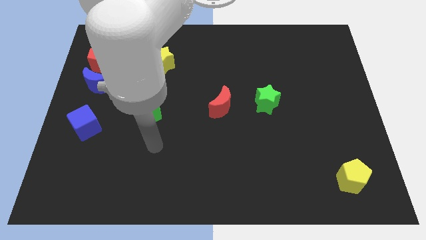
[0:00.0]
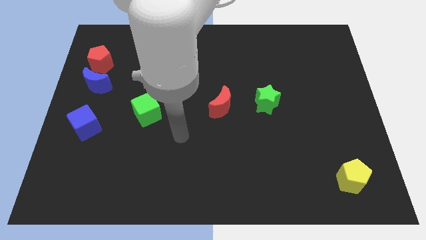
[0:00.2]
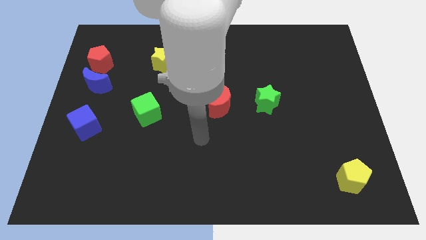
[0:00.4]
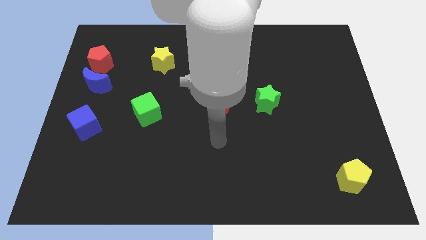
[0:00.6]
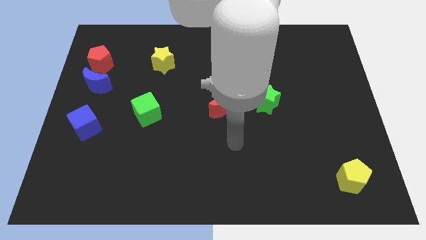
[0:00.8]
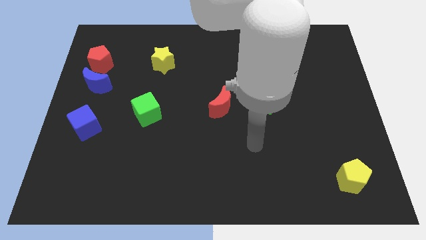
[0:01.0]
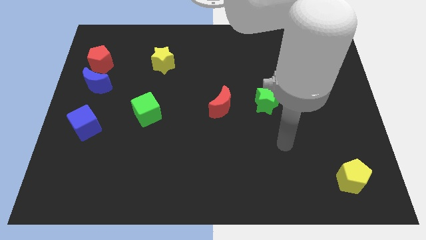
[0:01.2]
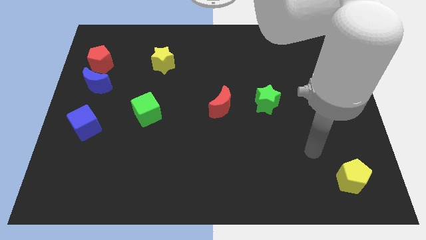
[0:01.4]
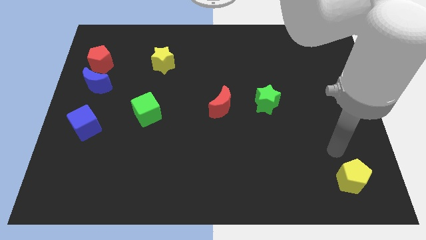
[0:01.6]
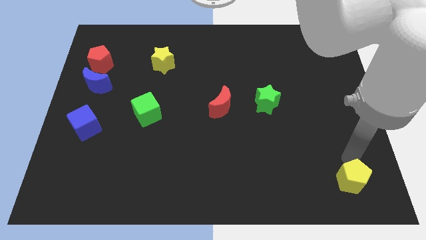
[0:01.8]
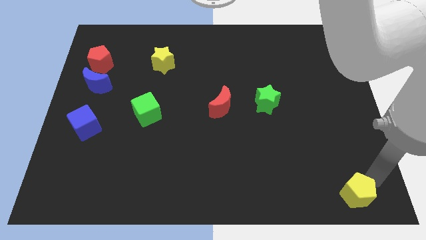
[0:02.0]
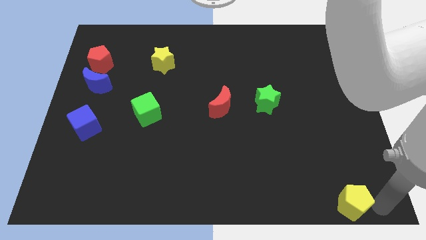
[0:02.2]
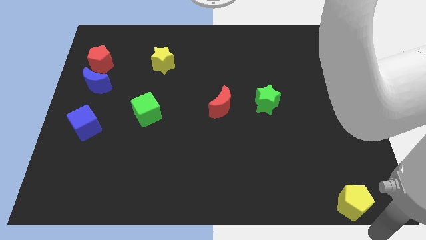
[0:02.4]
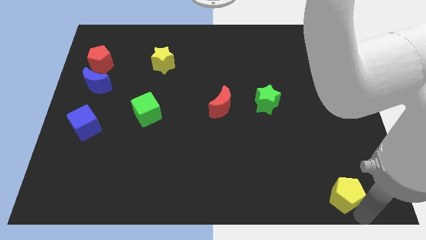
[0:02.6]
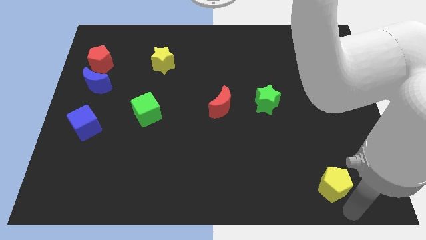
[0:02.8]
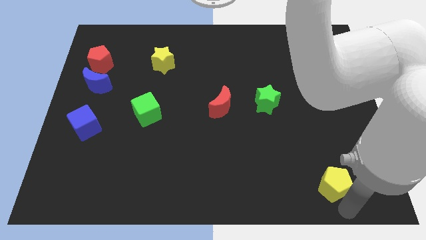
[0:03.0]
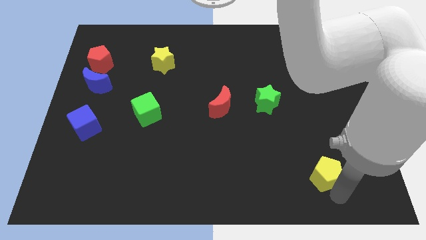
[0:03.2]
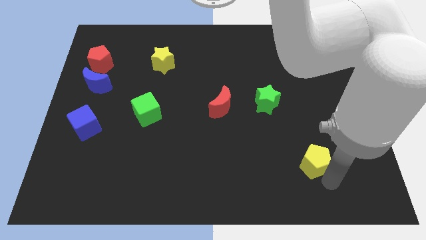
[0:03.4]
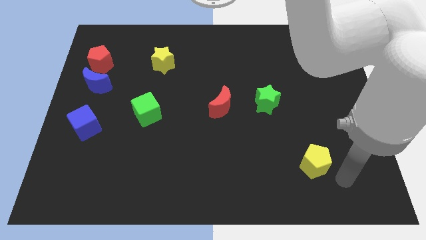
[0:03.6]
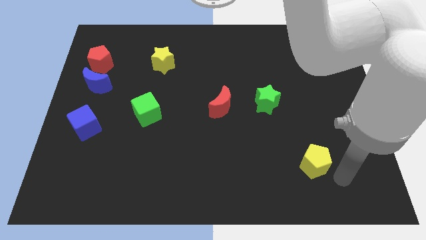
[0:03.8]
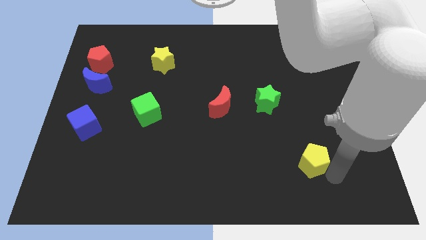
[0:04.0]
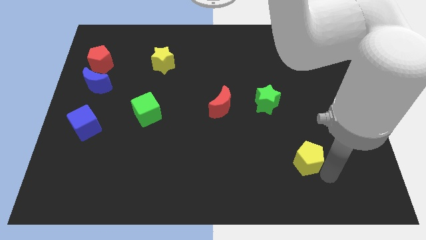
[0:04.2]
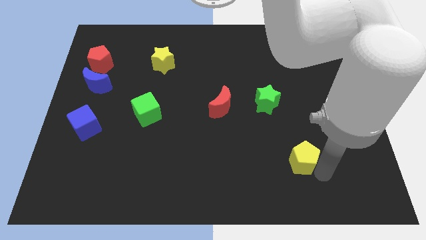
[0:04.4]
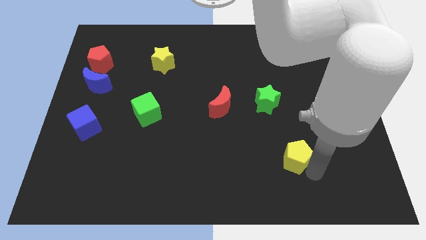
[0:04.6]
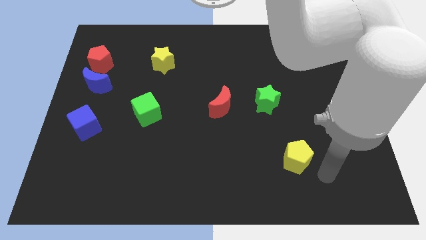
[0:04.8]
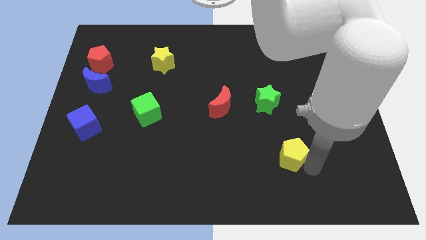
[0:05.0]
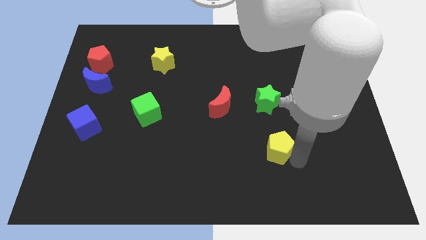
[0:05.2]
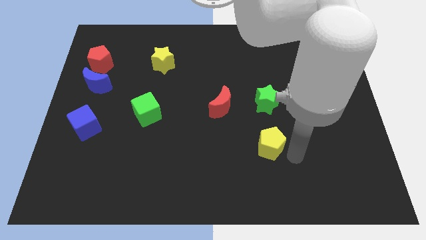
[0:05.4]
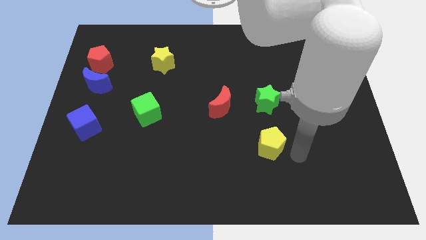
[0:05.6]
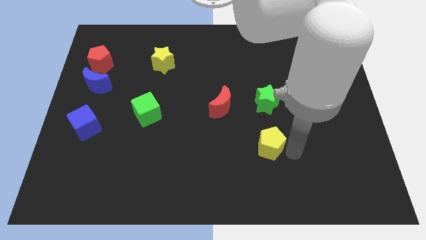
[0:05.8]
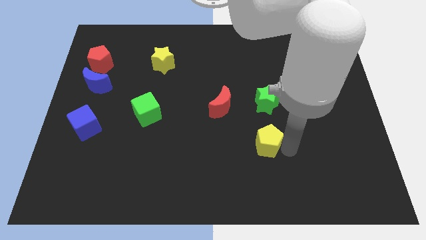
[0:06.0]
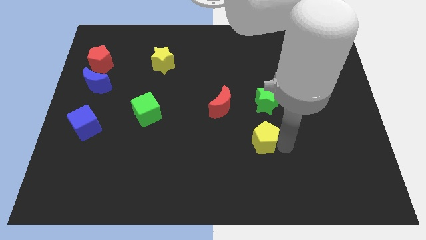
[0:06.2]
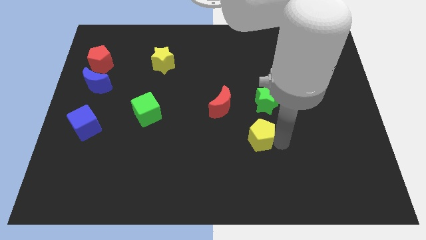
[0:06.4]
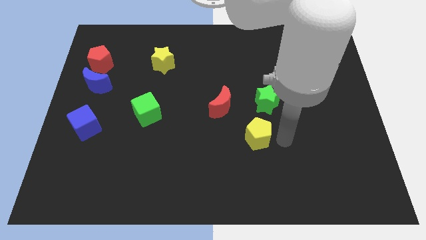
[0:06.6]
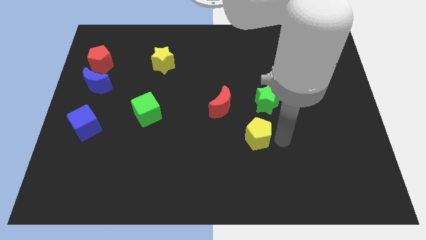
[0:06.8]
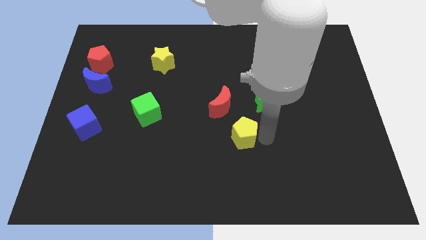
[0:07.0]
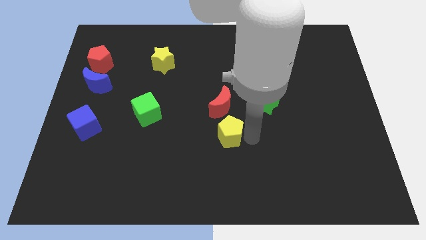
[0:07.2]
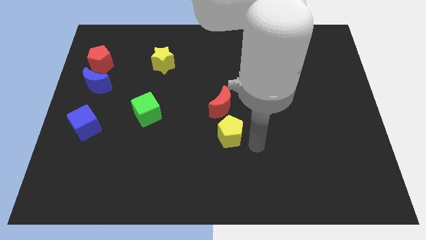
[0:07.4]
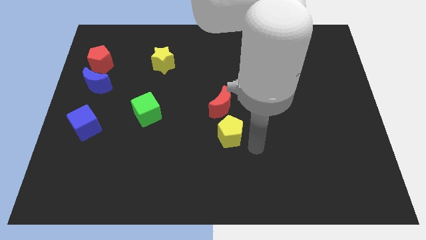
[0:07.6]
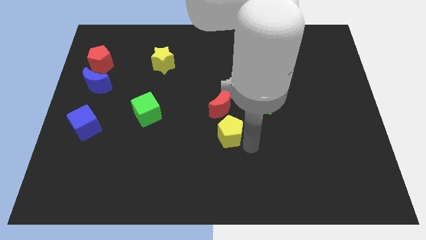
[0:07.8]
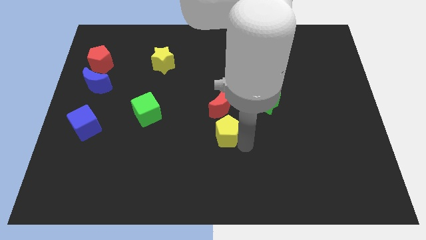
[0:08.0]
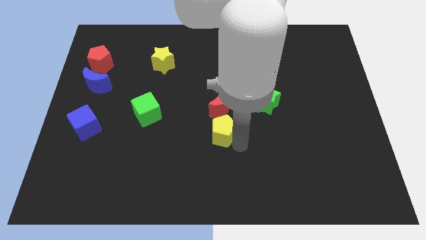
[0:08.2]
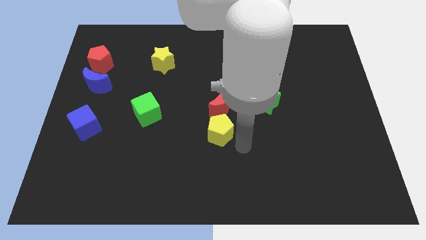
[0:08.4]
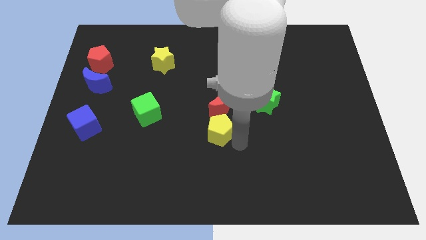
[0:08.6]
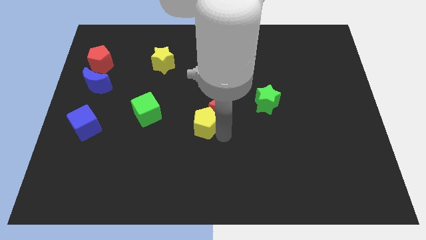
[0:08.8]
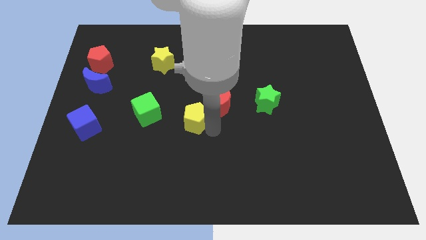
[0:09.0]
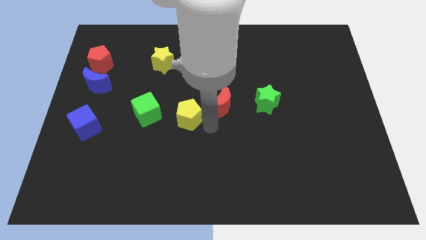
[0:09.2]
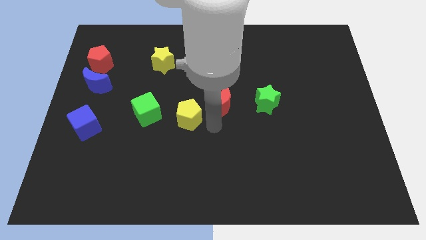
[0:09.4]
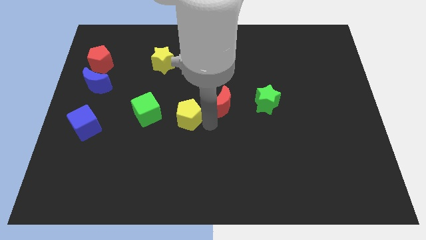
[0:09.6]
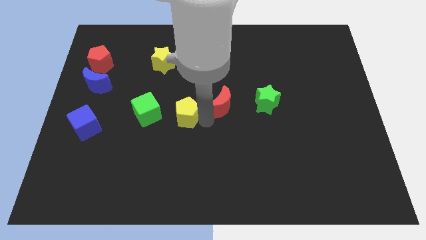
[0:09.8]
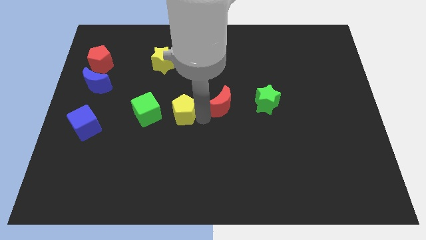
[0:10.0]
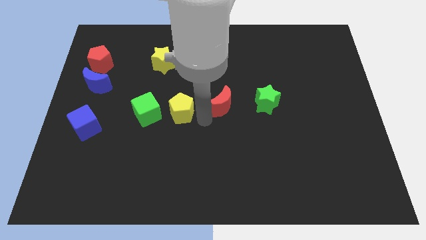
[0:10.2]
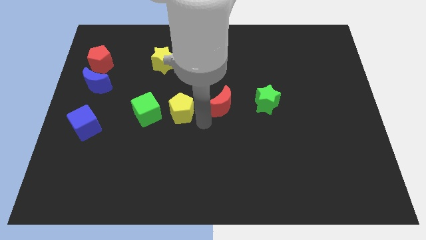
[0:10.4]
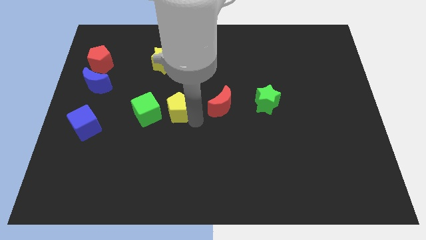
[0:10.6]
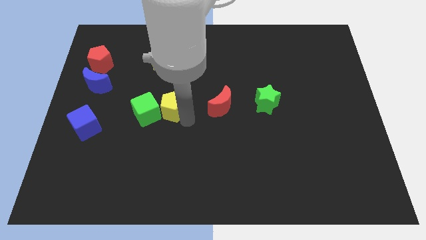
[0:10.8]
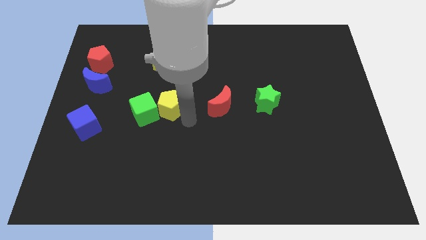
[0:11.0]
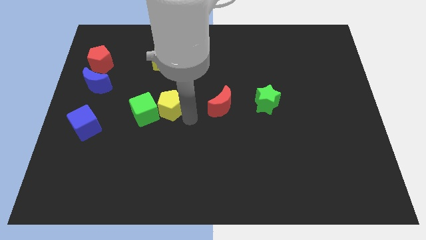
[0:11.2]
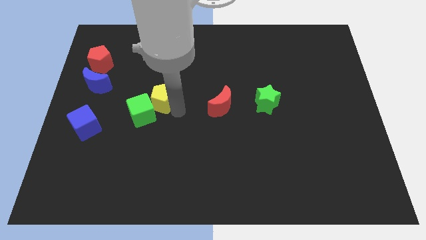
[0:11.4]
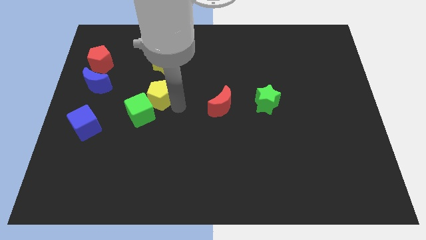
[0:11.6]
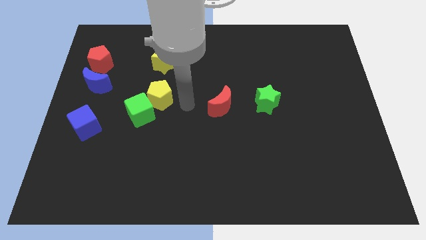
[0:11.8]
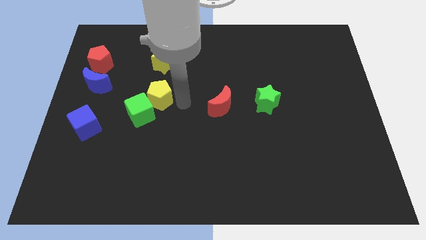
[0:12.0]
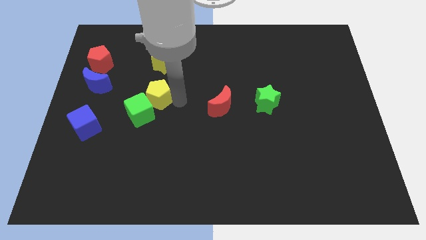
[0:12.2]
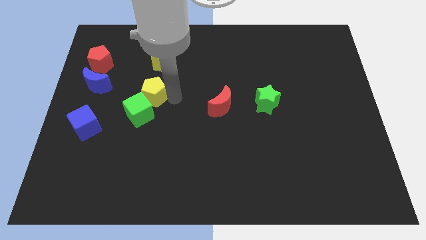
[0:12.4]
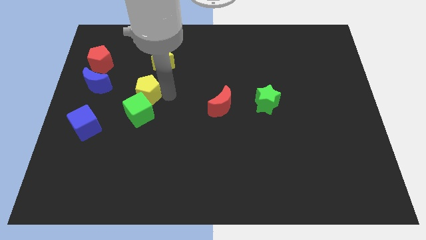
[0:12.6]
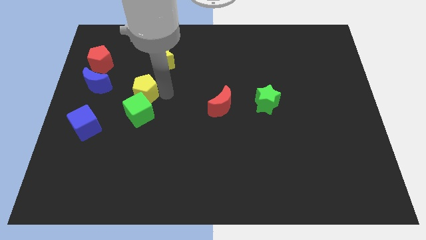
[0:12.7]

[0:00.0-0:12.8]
push the yellow pentagon diagonally up and to the left of the green cube

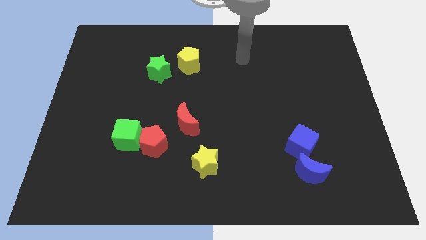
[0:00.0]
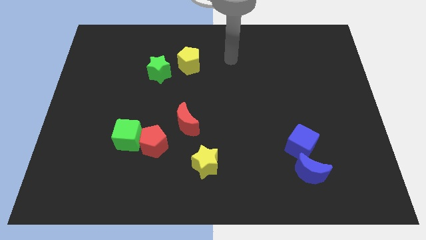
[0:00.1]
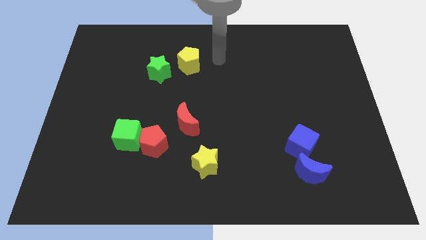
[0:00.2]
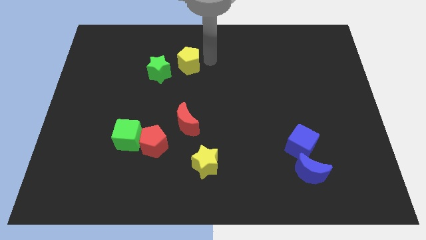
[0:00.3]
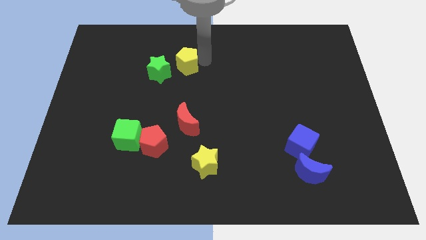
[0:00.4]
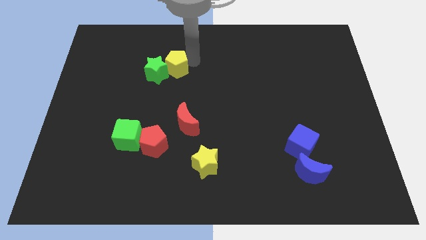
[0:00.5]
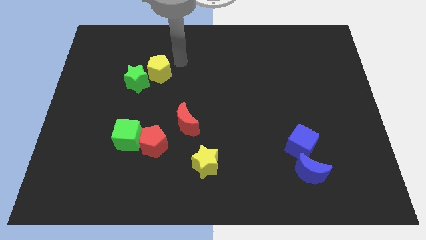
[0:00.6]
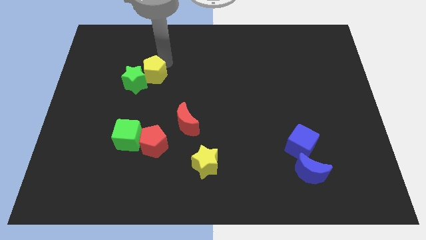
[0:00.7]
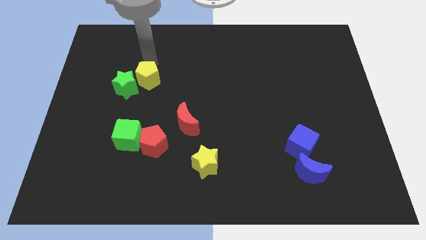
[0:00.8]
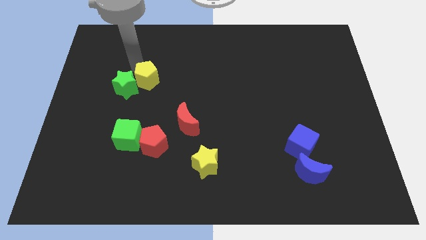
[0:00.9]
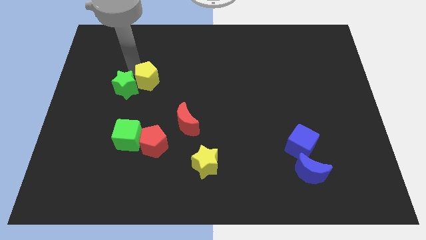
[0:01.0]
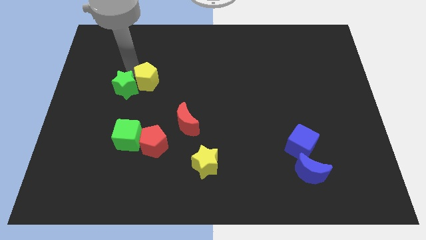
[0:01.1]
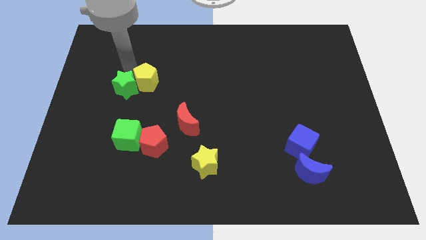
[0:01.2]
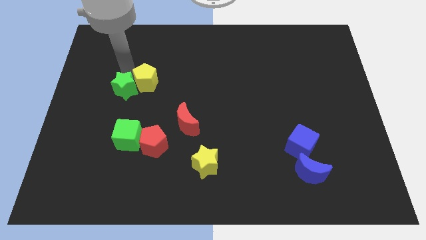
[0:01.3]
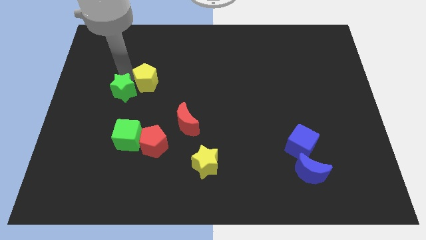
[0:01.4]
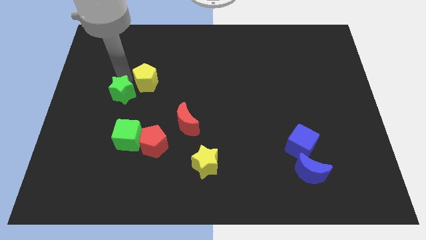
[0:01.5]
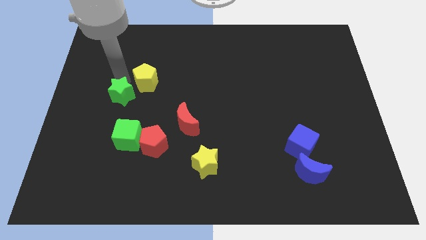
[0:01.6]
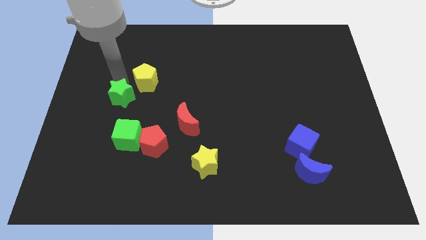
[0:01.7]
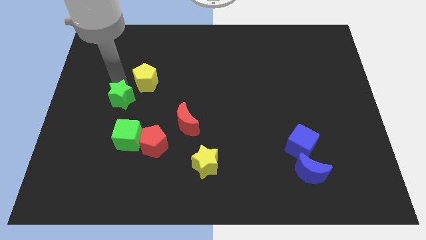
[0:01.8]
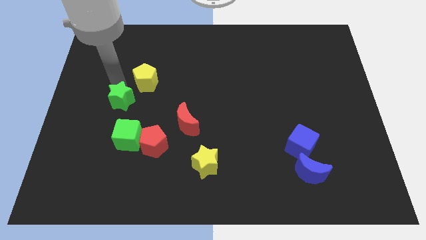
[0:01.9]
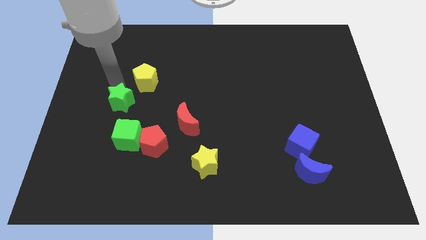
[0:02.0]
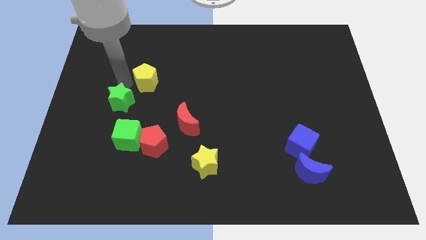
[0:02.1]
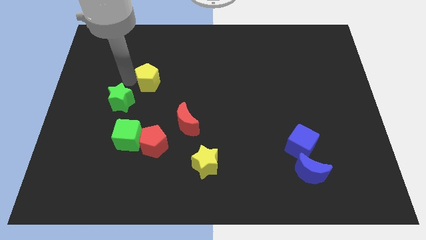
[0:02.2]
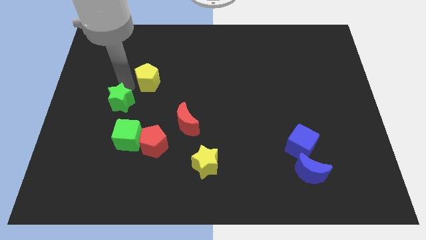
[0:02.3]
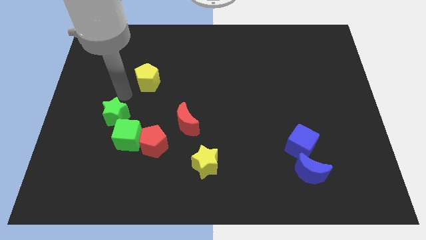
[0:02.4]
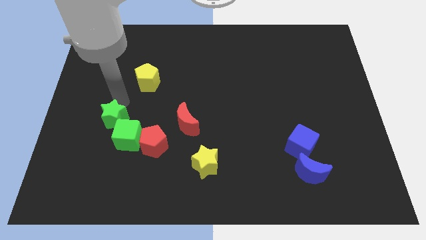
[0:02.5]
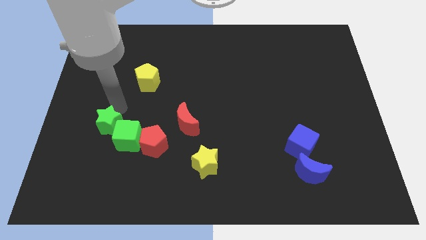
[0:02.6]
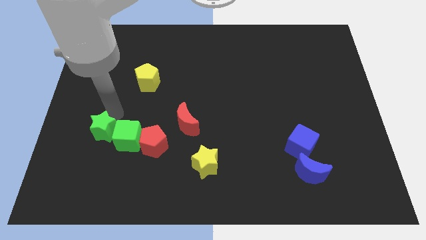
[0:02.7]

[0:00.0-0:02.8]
slide the green star to the left of the red pentagon
